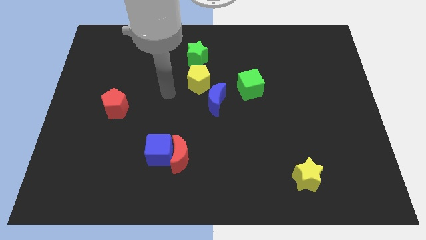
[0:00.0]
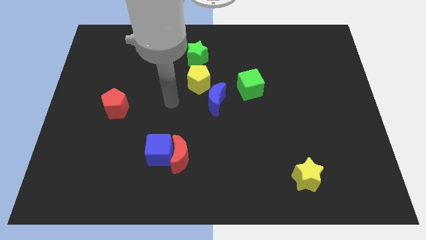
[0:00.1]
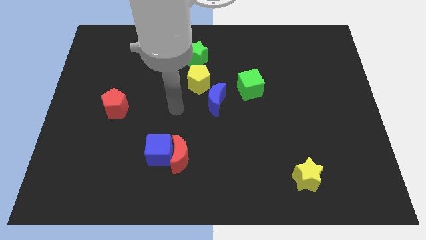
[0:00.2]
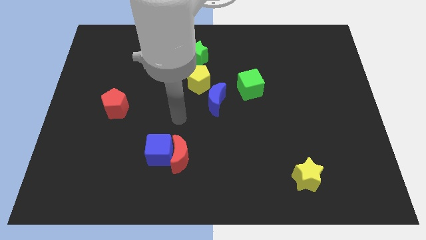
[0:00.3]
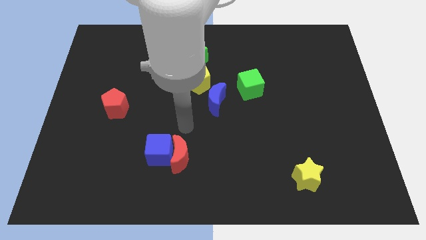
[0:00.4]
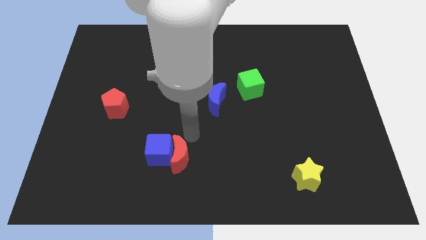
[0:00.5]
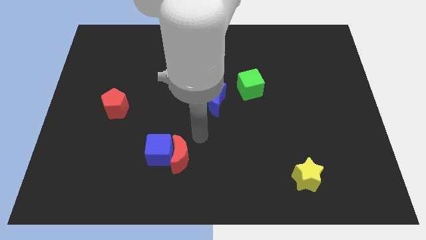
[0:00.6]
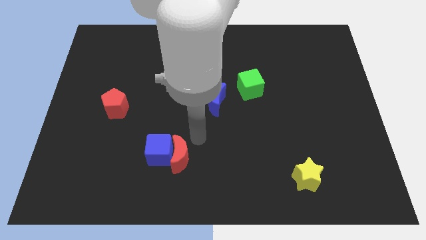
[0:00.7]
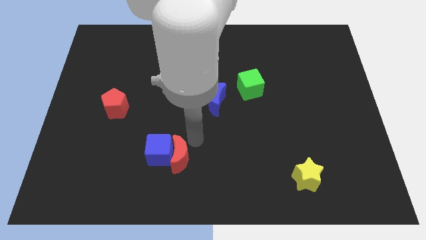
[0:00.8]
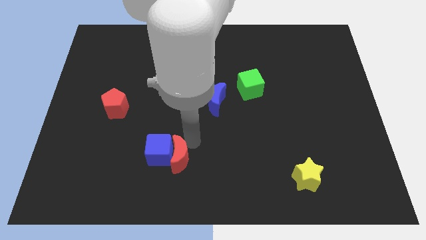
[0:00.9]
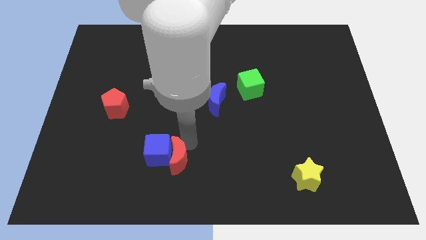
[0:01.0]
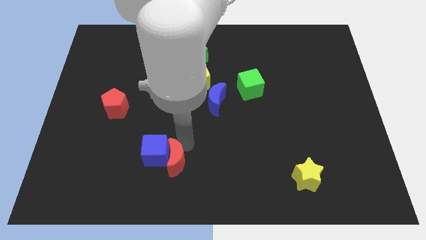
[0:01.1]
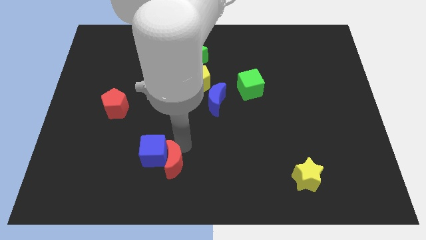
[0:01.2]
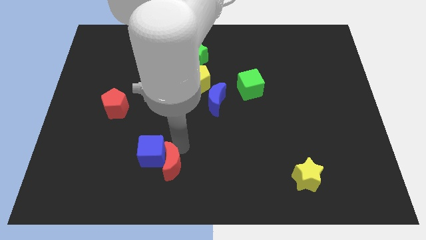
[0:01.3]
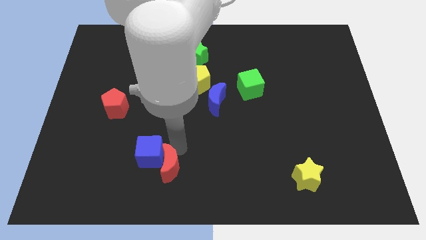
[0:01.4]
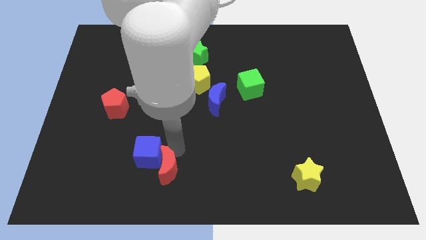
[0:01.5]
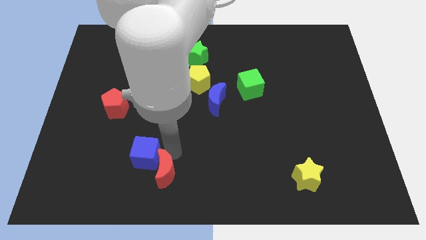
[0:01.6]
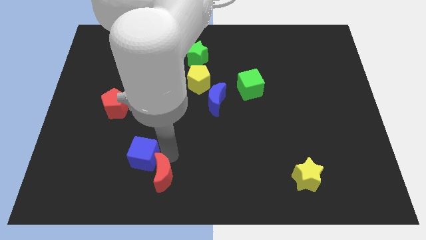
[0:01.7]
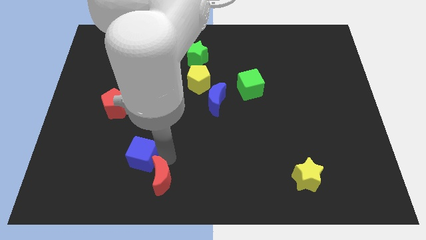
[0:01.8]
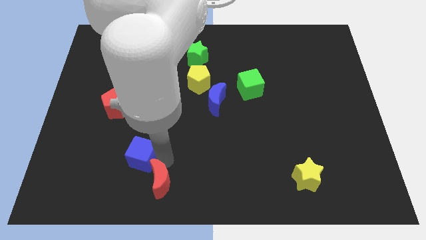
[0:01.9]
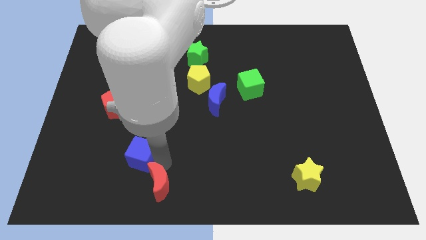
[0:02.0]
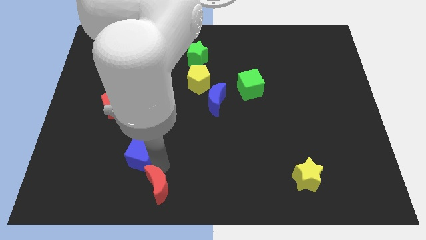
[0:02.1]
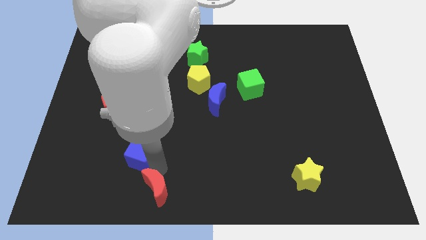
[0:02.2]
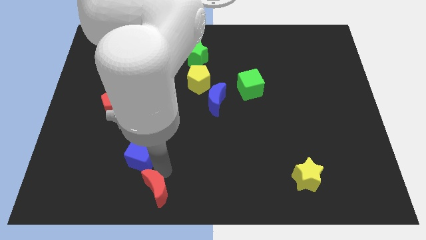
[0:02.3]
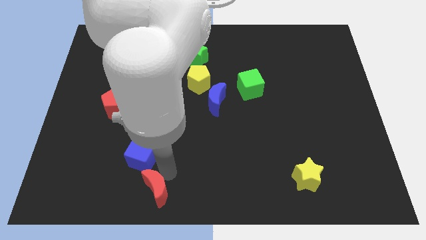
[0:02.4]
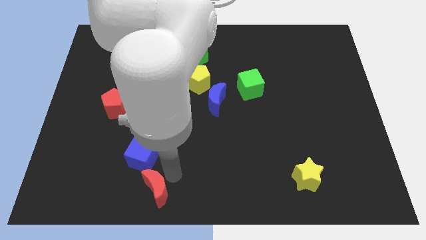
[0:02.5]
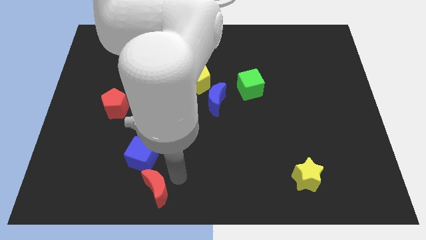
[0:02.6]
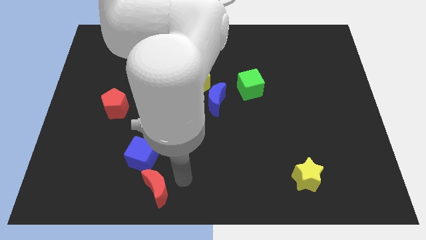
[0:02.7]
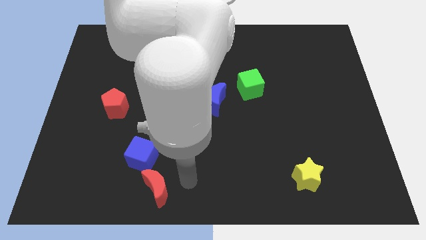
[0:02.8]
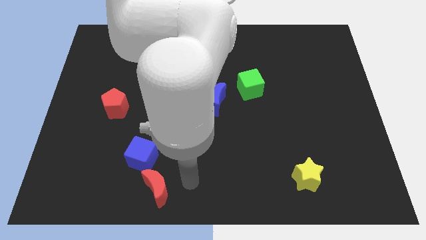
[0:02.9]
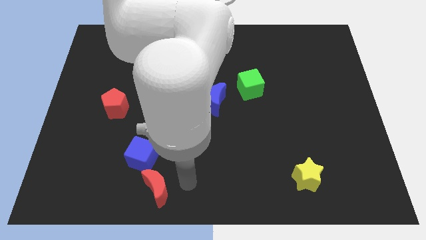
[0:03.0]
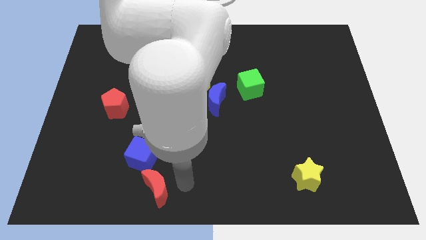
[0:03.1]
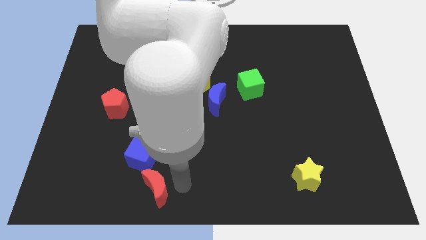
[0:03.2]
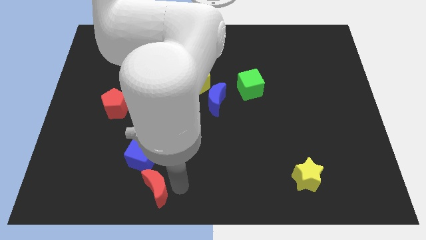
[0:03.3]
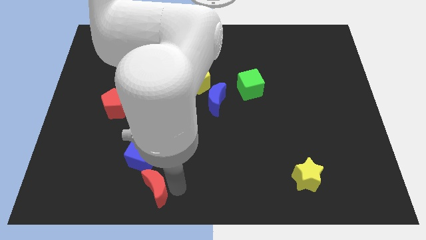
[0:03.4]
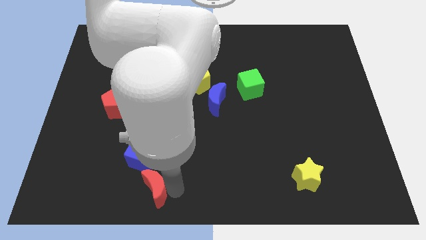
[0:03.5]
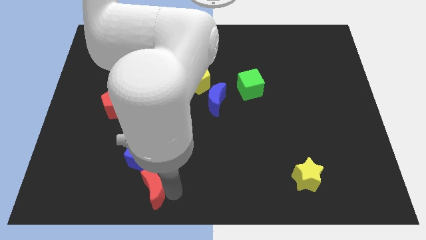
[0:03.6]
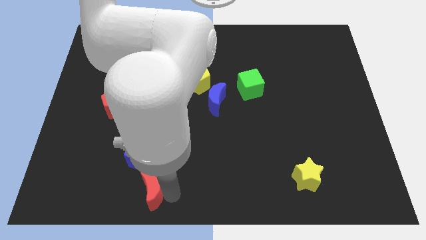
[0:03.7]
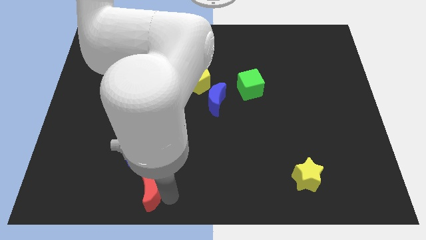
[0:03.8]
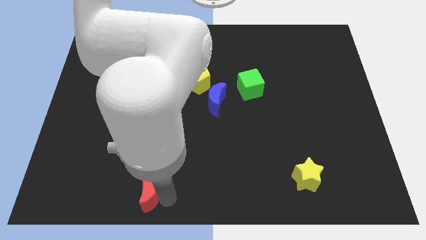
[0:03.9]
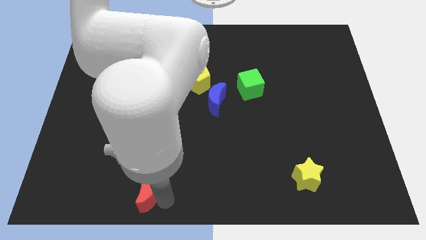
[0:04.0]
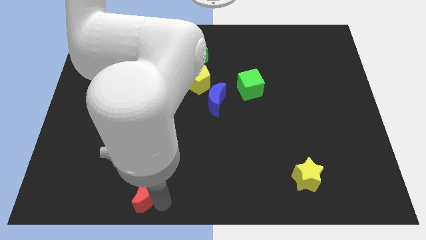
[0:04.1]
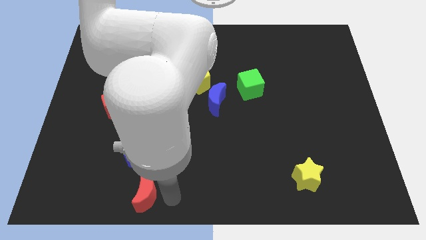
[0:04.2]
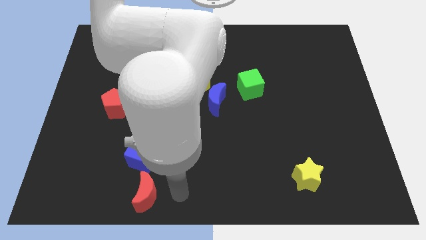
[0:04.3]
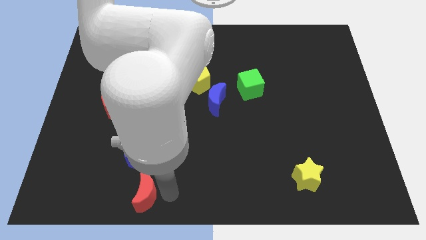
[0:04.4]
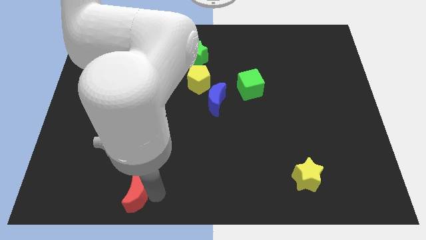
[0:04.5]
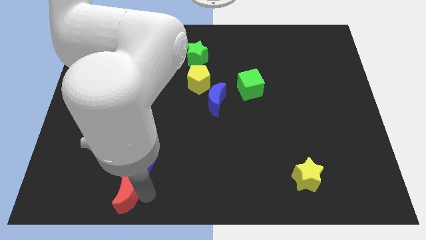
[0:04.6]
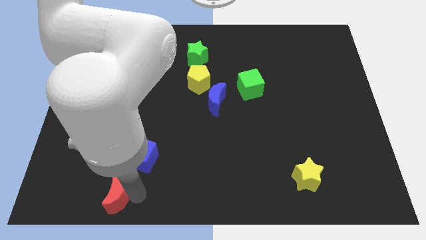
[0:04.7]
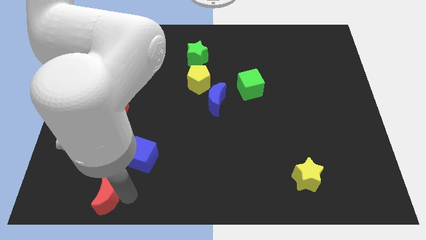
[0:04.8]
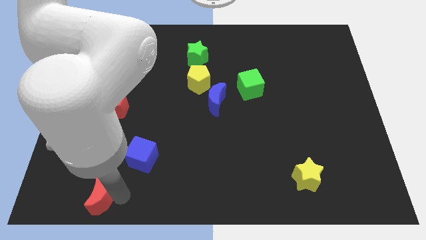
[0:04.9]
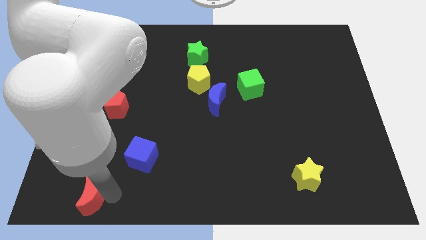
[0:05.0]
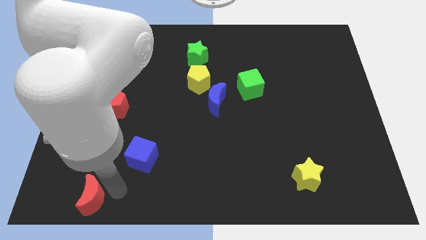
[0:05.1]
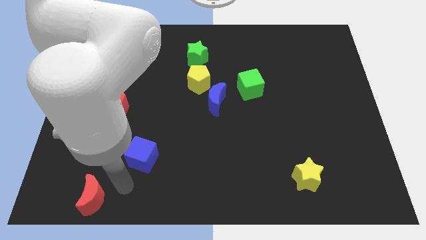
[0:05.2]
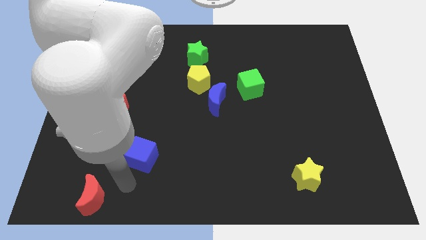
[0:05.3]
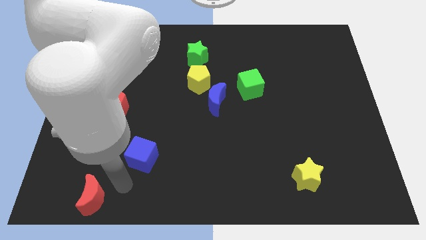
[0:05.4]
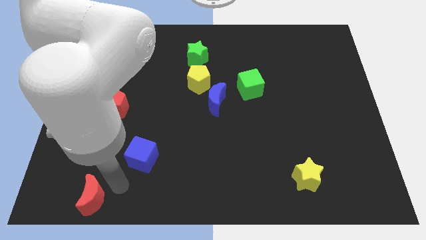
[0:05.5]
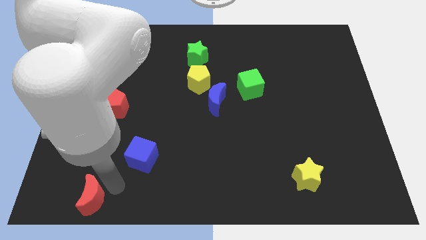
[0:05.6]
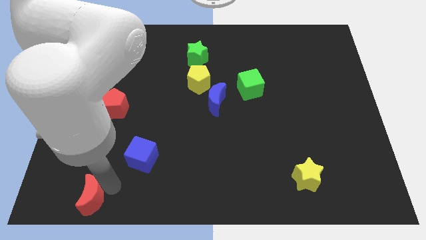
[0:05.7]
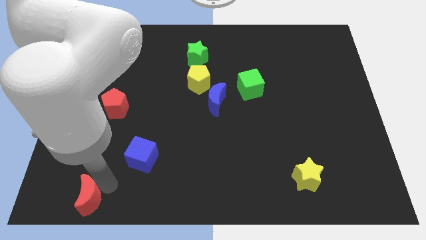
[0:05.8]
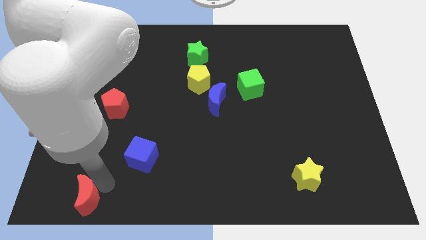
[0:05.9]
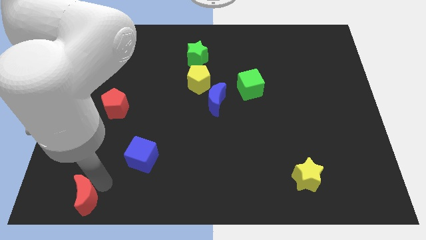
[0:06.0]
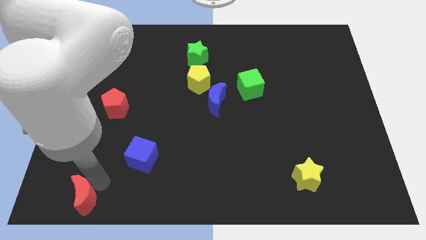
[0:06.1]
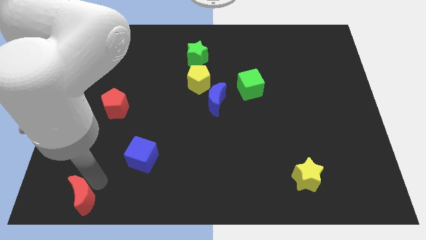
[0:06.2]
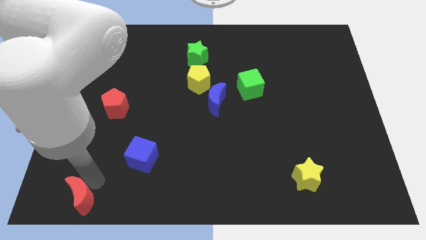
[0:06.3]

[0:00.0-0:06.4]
slide the red moon to the bottom left

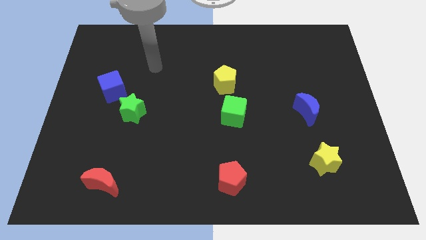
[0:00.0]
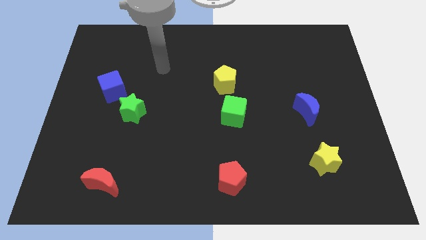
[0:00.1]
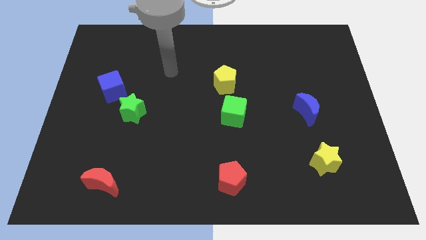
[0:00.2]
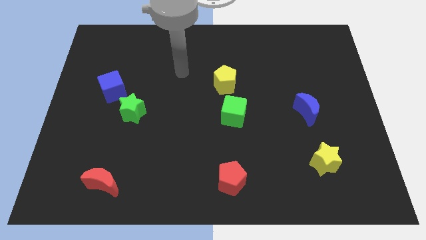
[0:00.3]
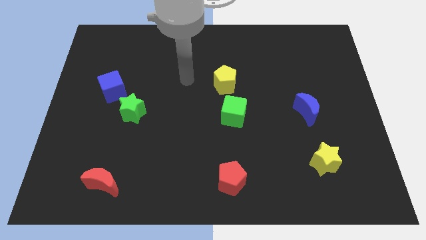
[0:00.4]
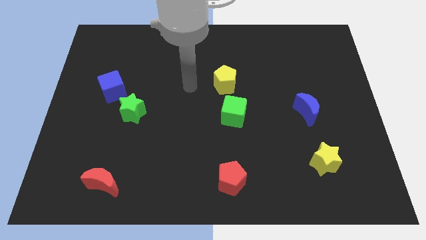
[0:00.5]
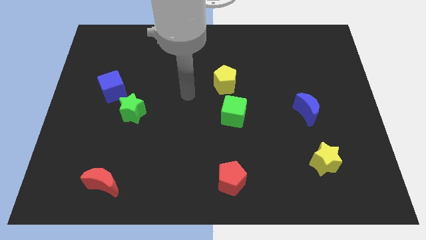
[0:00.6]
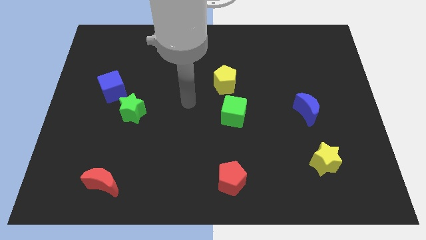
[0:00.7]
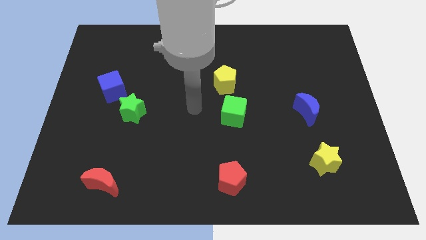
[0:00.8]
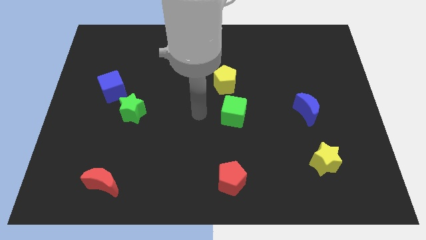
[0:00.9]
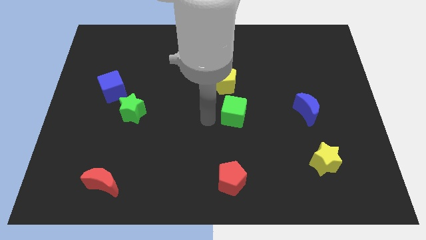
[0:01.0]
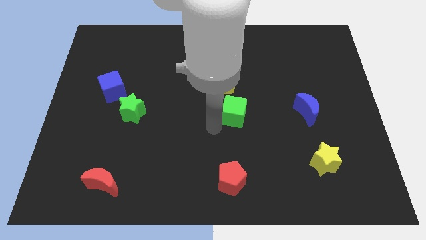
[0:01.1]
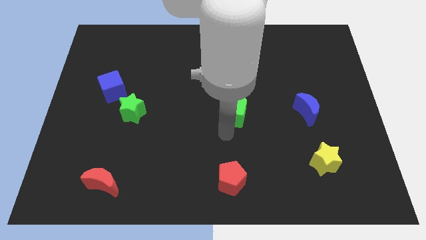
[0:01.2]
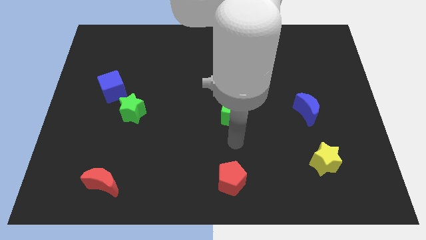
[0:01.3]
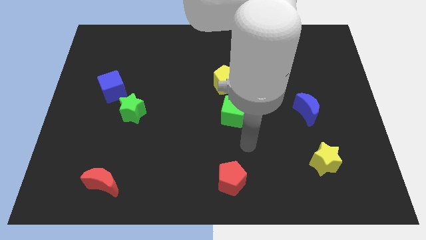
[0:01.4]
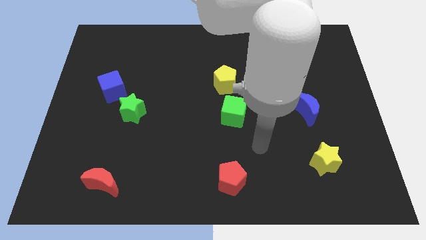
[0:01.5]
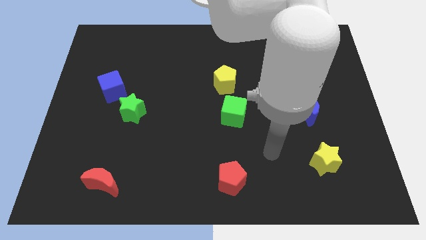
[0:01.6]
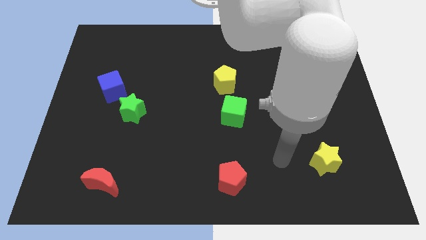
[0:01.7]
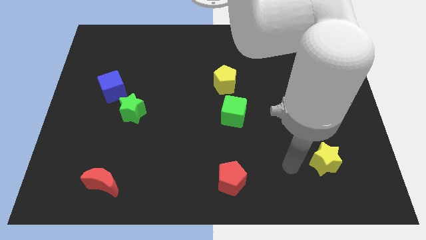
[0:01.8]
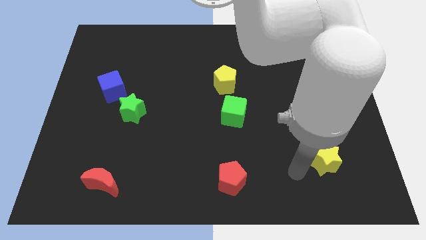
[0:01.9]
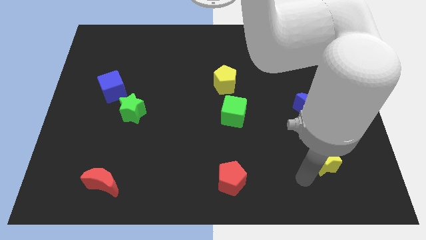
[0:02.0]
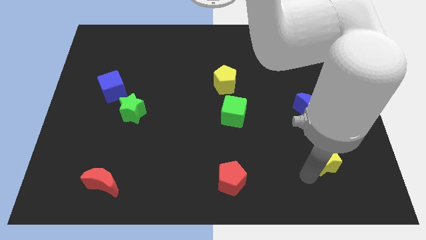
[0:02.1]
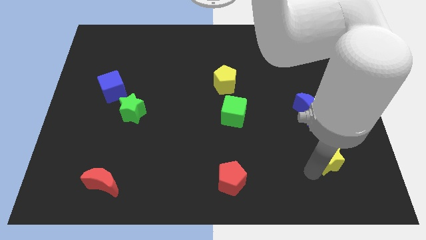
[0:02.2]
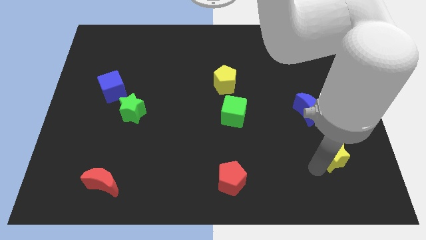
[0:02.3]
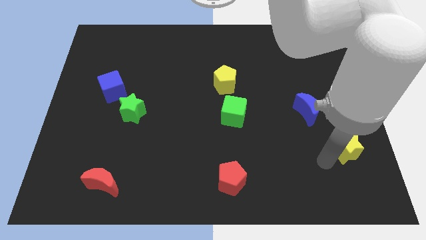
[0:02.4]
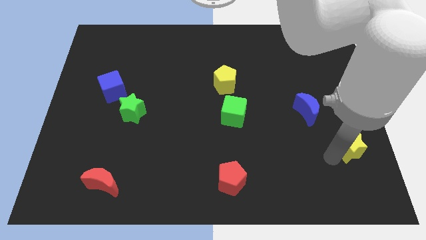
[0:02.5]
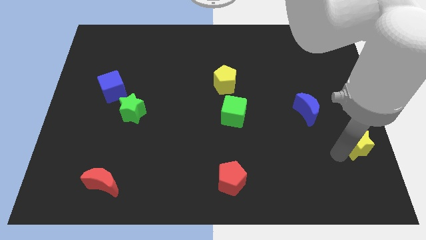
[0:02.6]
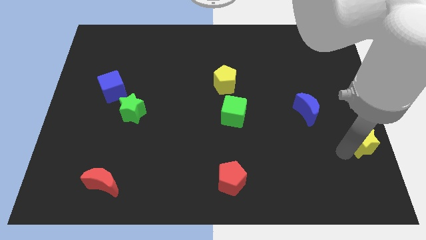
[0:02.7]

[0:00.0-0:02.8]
push the yellow star to the center right
